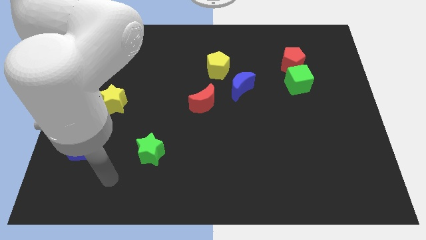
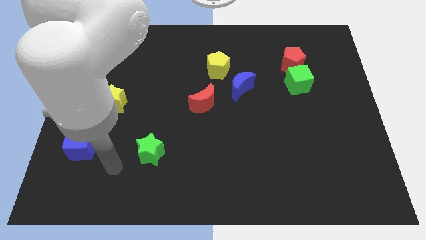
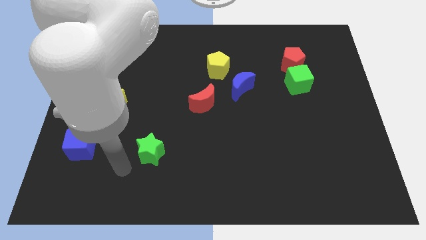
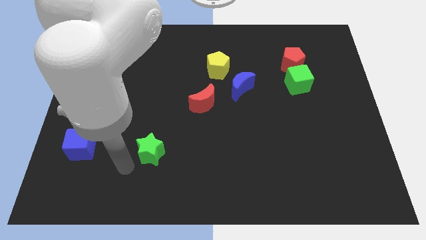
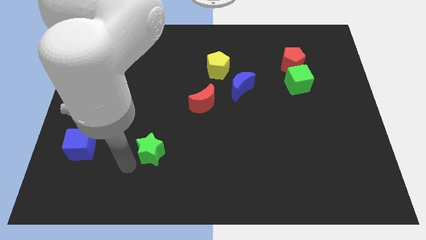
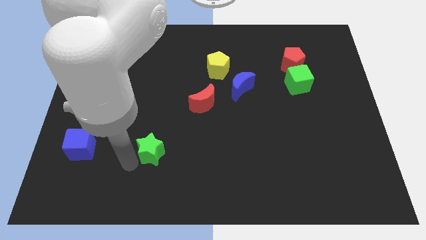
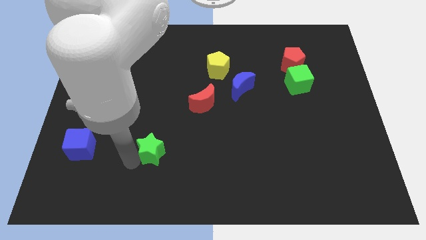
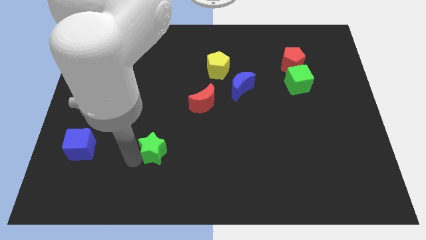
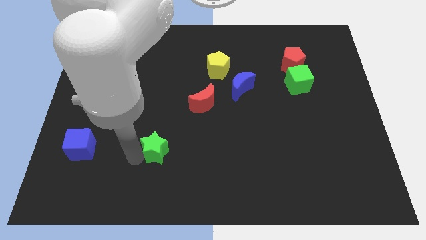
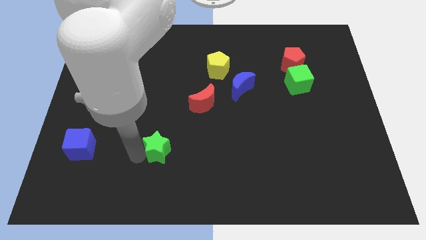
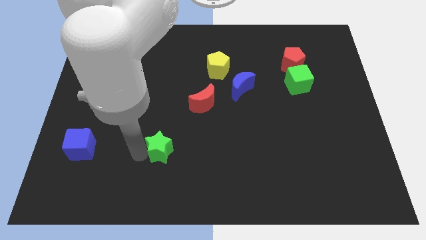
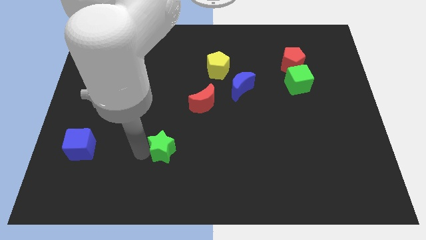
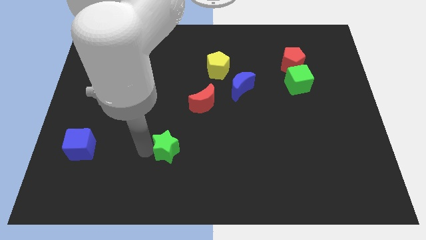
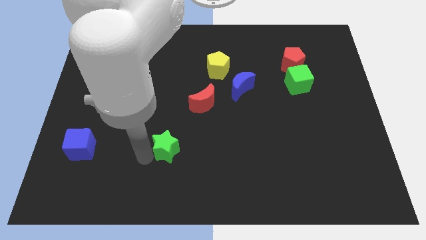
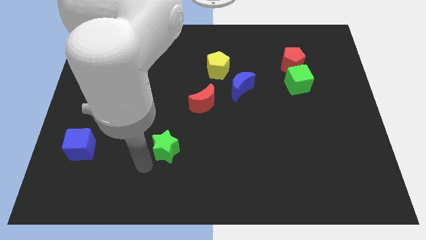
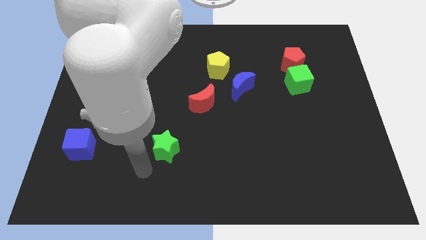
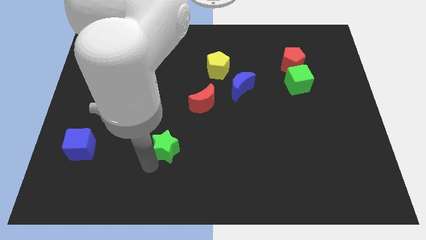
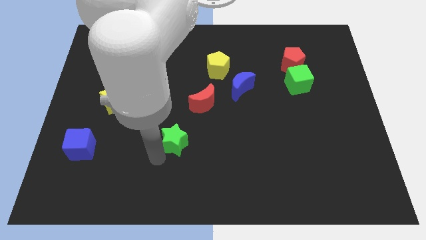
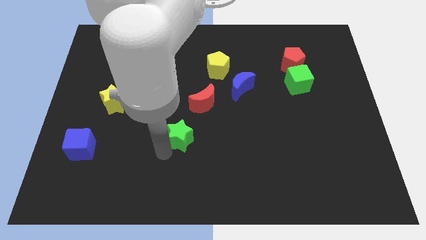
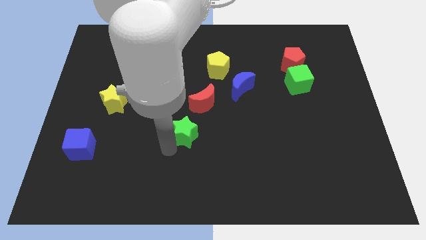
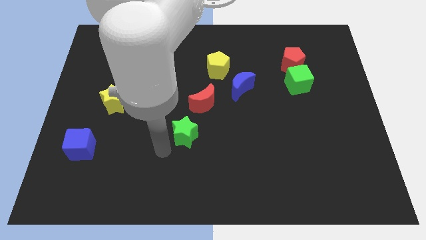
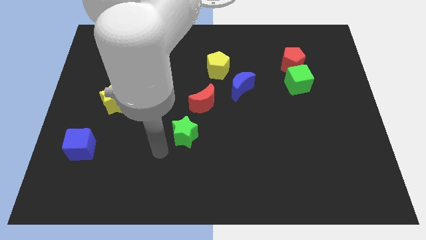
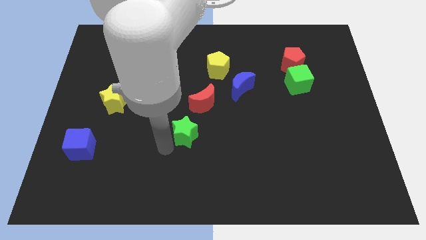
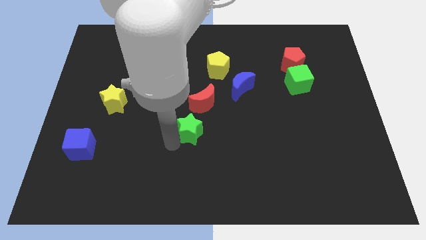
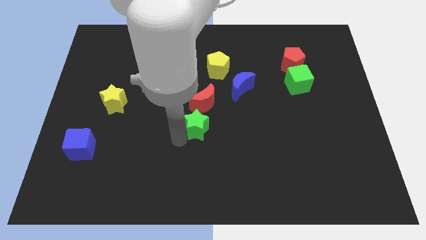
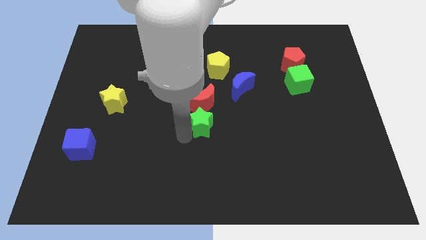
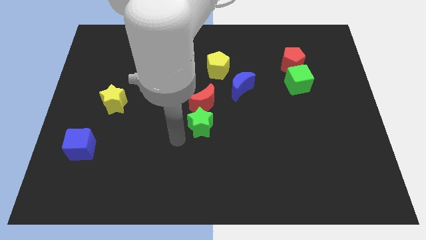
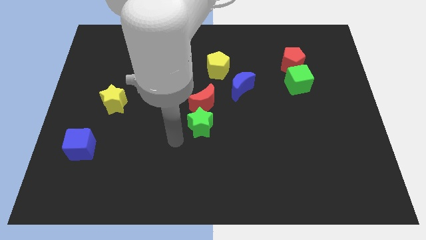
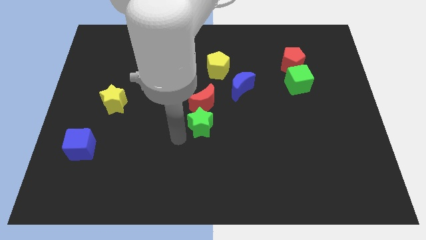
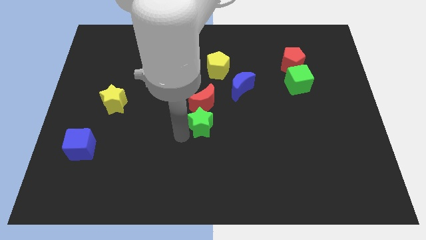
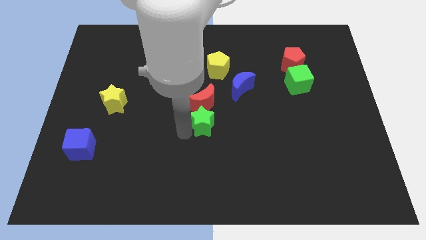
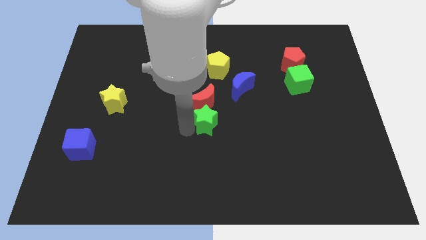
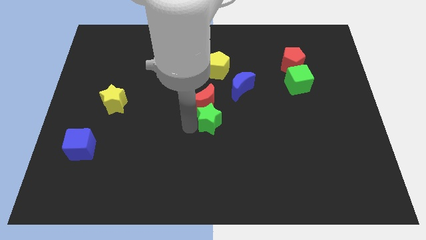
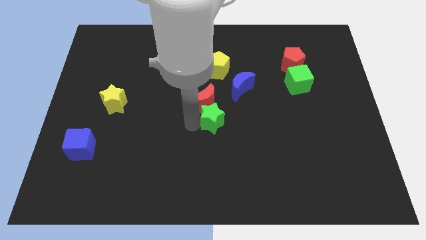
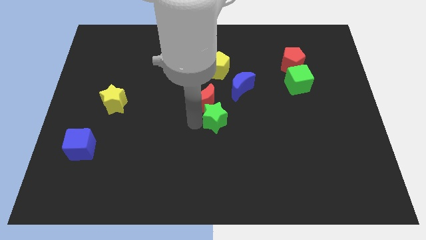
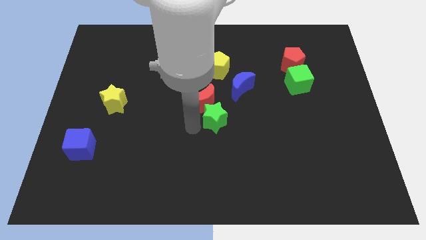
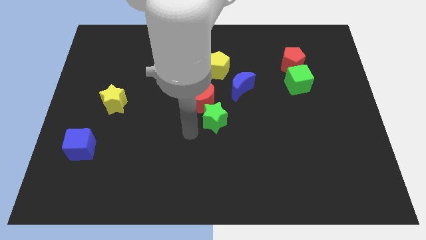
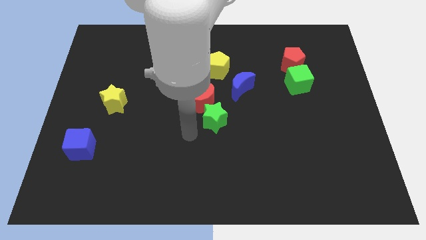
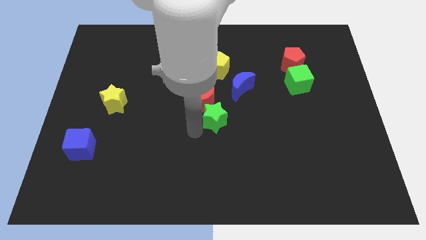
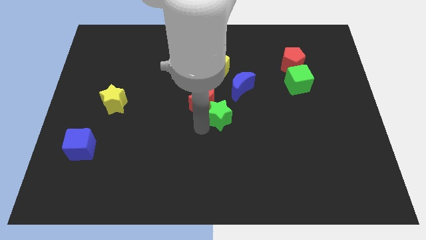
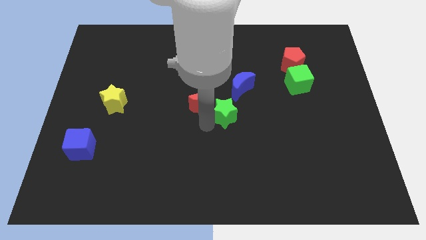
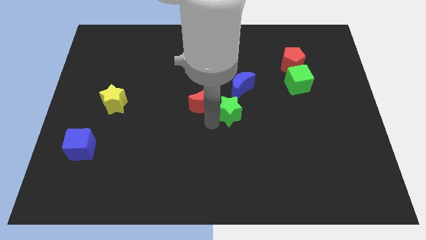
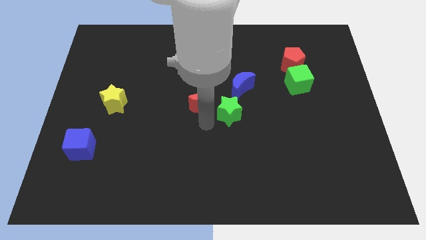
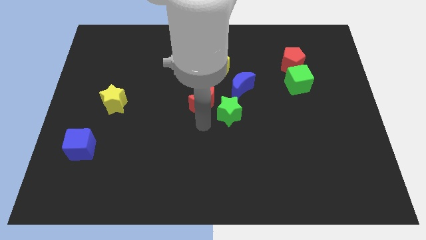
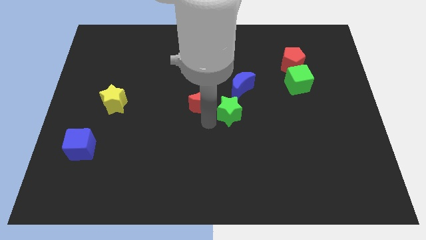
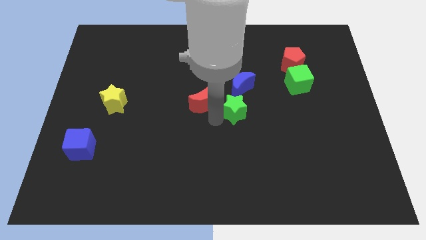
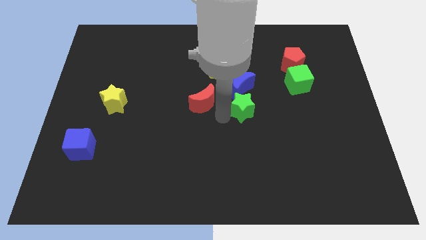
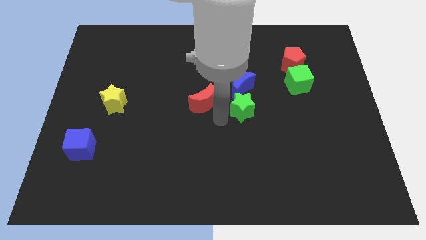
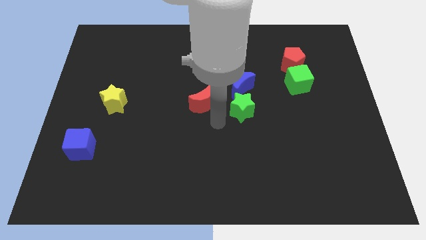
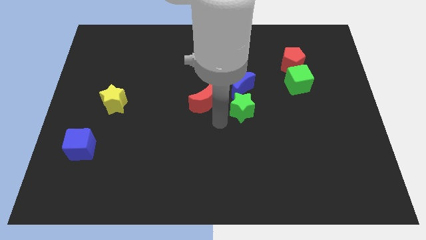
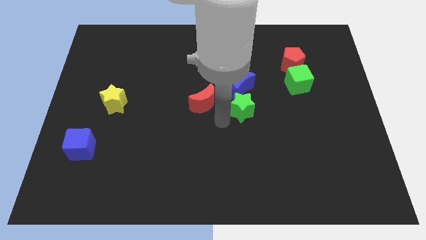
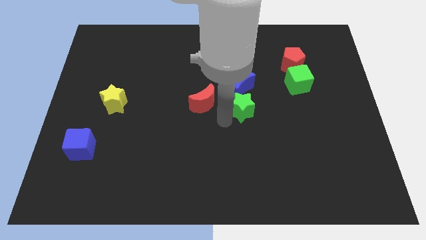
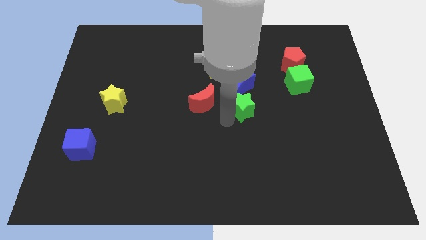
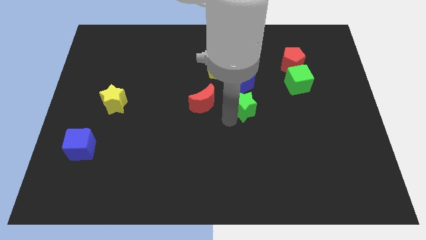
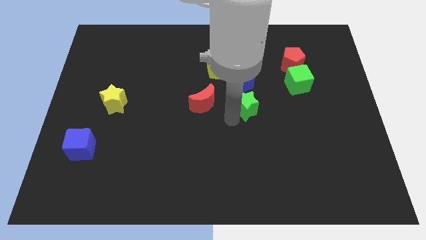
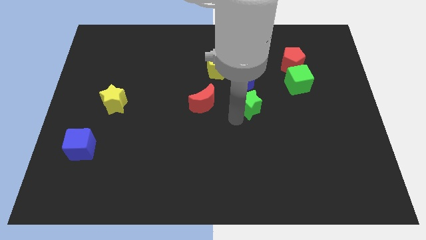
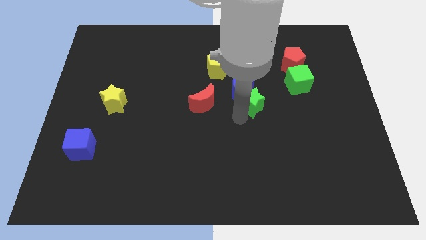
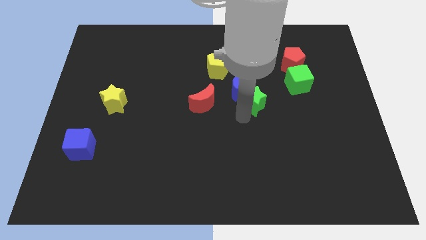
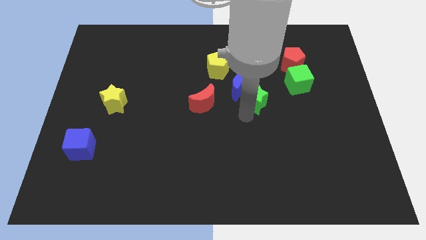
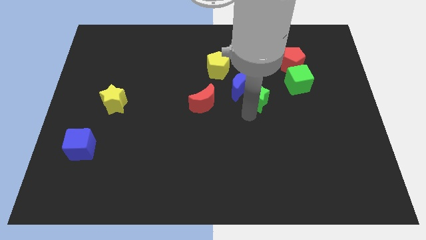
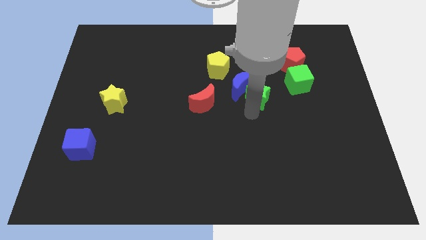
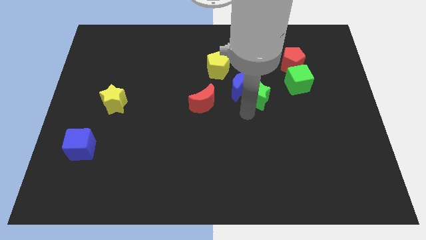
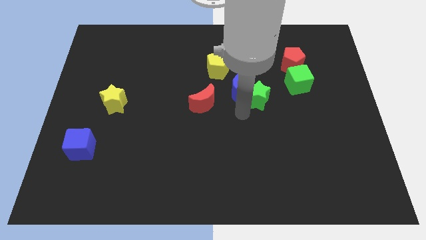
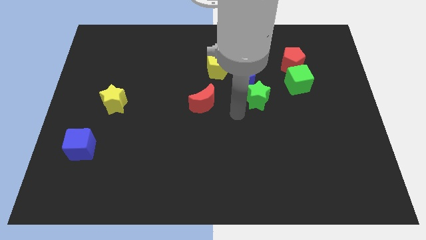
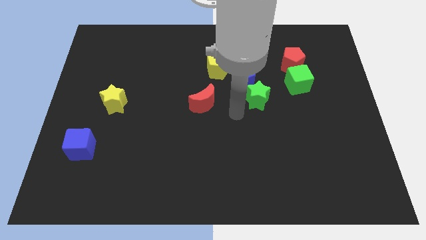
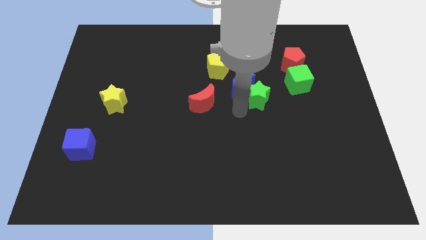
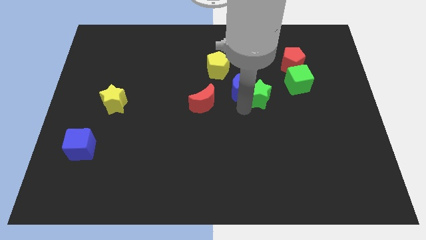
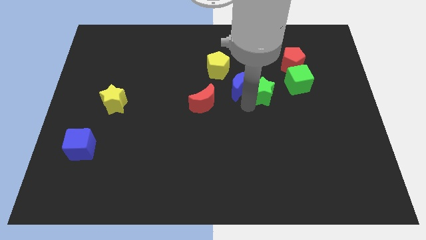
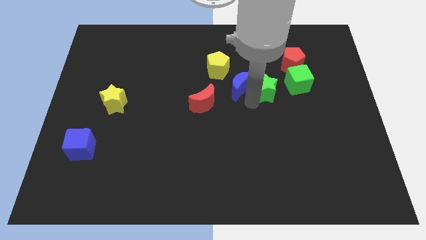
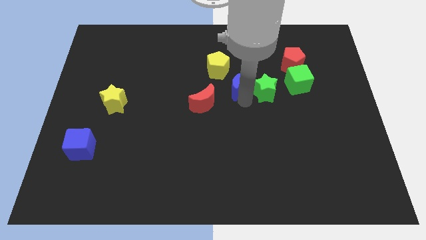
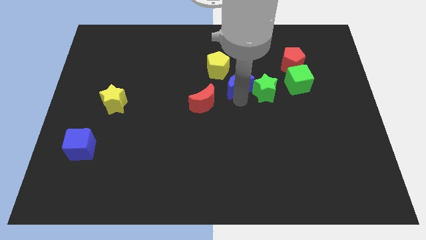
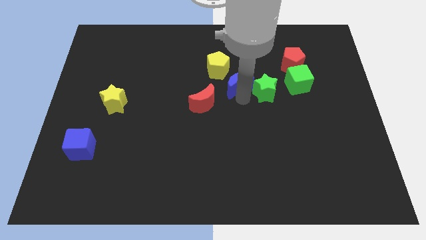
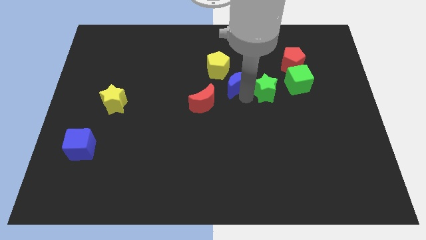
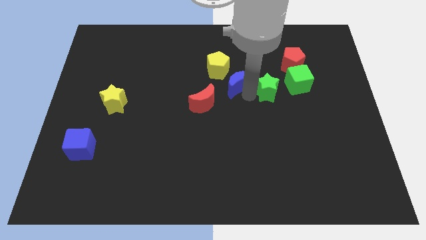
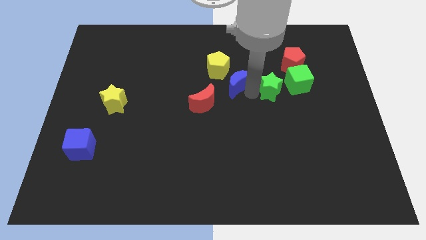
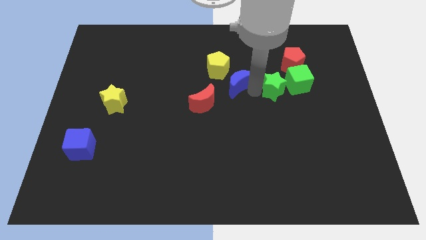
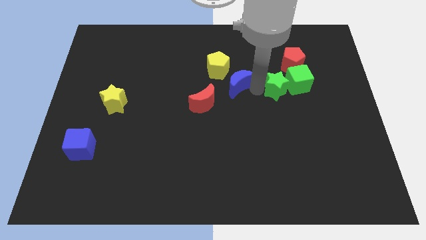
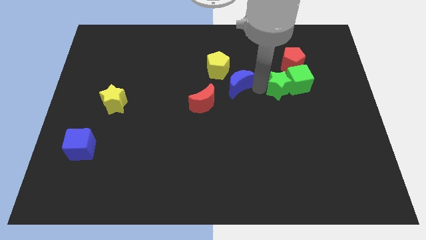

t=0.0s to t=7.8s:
push the green star to the green cube
